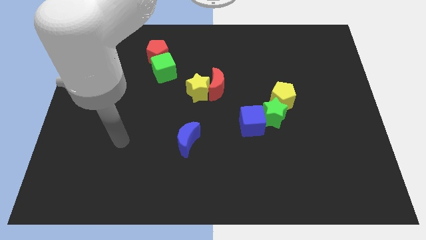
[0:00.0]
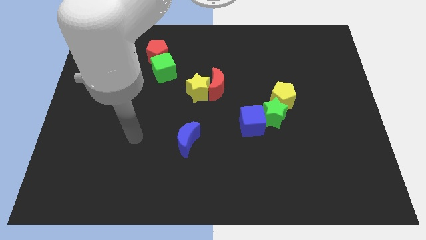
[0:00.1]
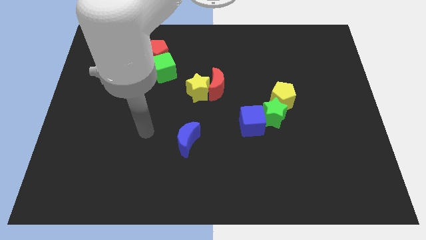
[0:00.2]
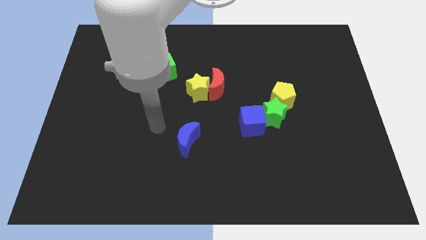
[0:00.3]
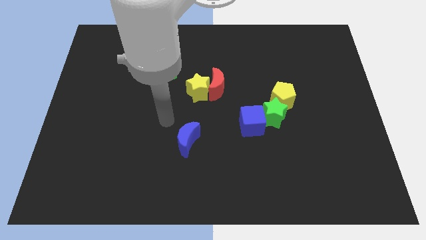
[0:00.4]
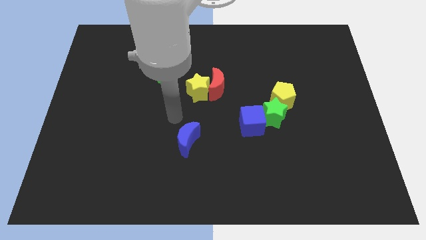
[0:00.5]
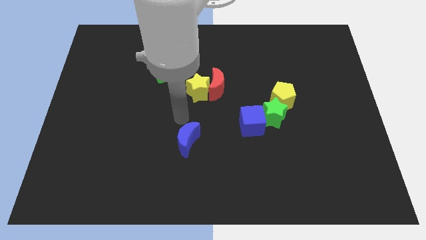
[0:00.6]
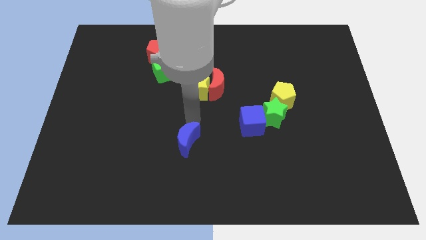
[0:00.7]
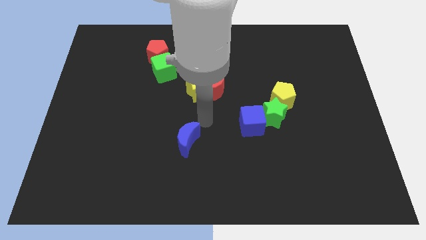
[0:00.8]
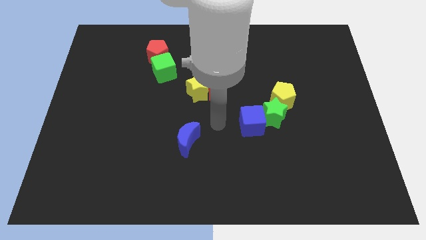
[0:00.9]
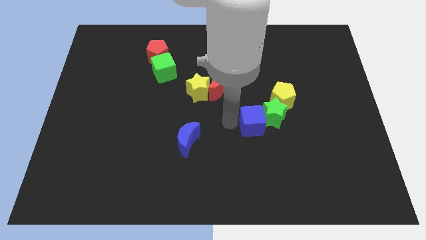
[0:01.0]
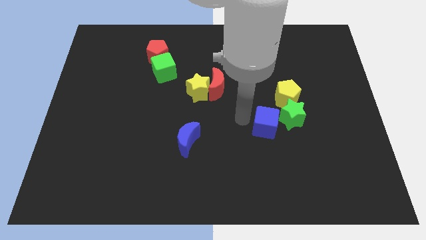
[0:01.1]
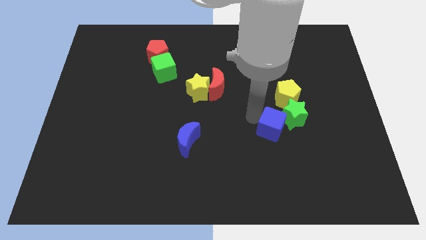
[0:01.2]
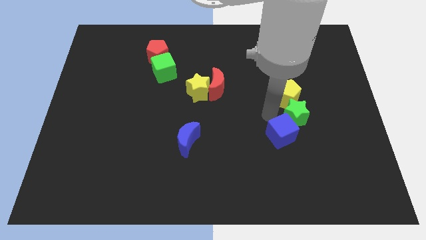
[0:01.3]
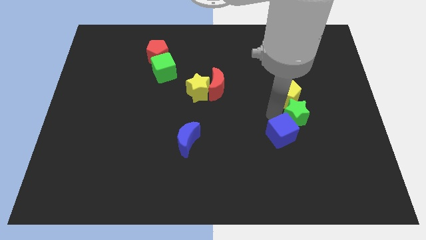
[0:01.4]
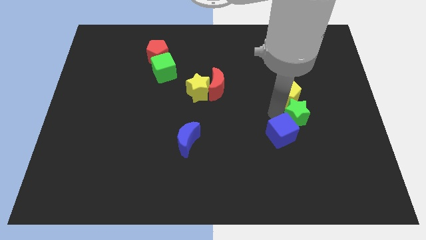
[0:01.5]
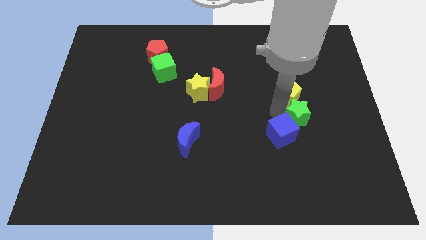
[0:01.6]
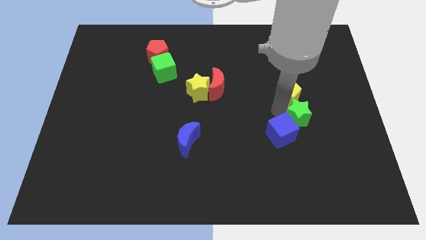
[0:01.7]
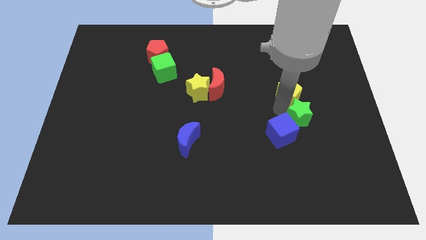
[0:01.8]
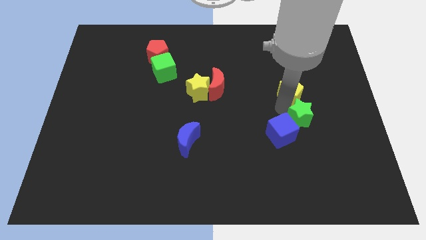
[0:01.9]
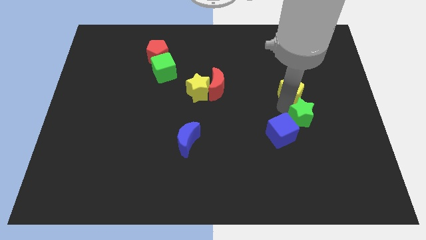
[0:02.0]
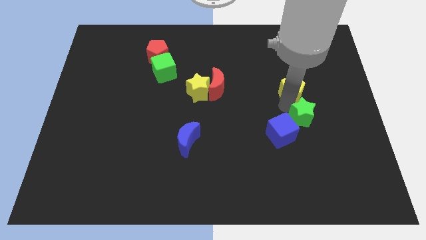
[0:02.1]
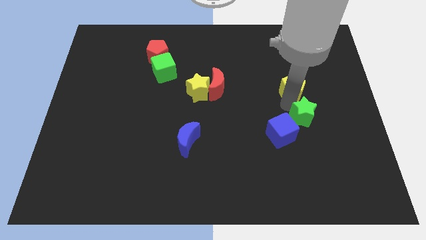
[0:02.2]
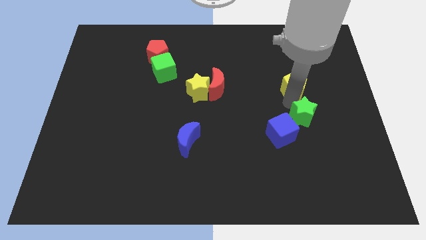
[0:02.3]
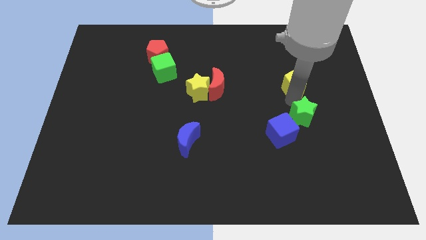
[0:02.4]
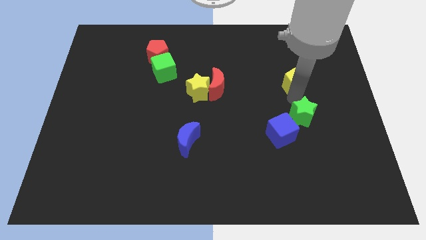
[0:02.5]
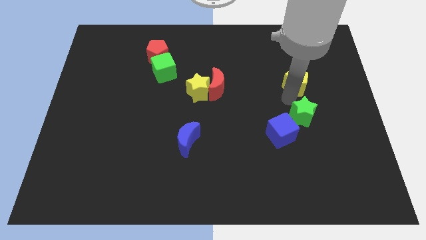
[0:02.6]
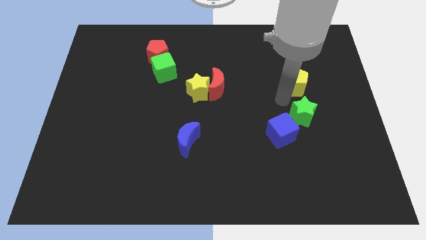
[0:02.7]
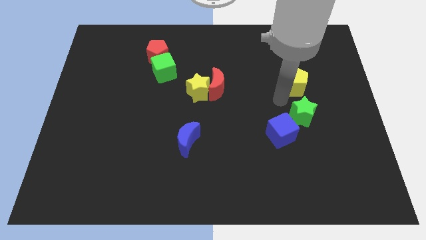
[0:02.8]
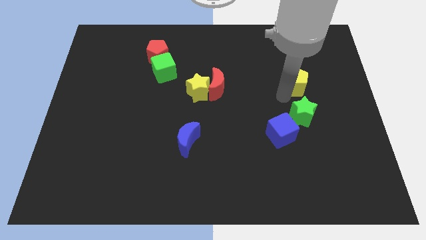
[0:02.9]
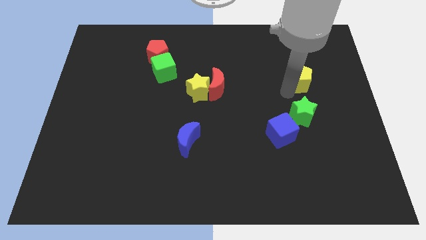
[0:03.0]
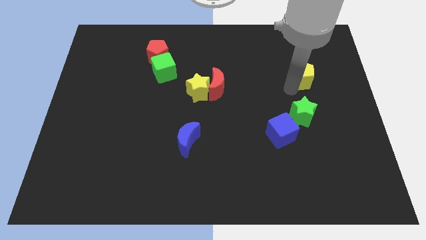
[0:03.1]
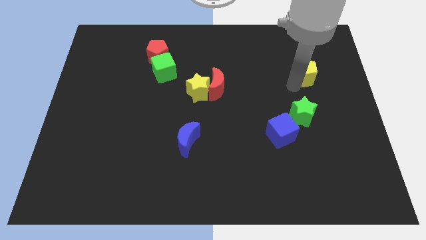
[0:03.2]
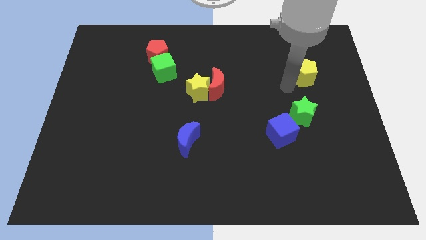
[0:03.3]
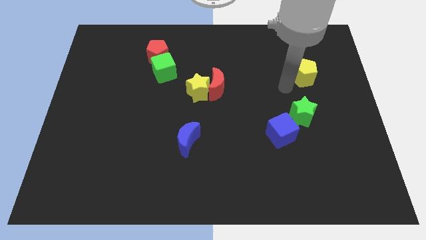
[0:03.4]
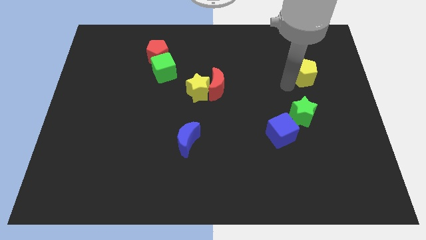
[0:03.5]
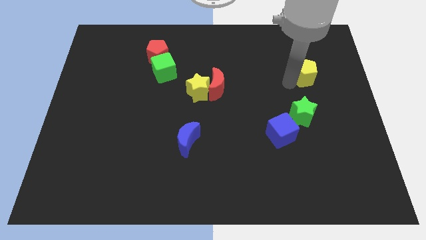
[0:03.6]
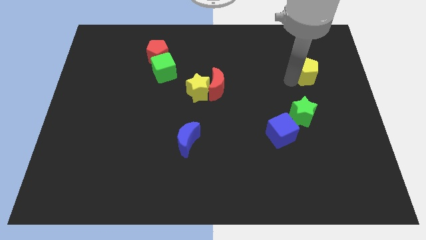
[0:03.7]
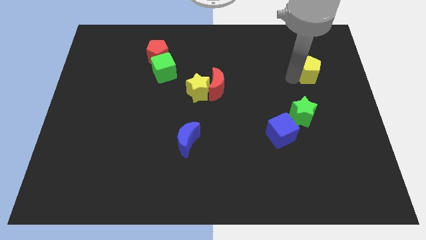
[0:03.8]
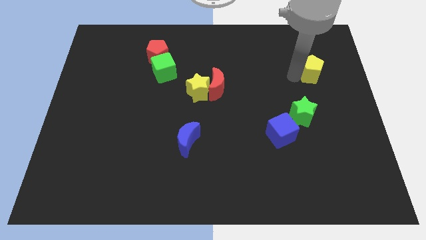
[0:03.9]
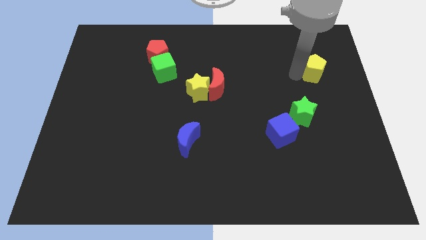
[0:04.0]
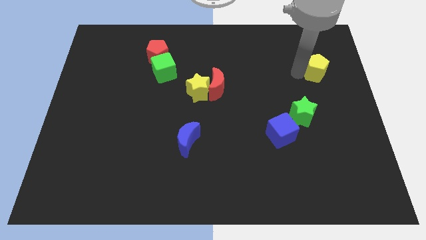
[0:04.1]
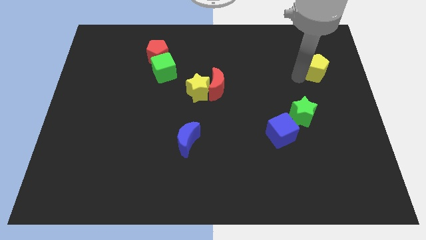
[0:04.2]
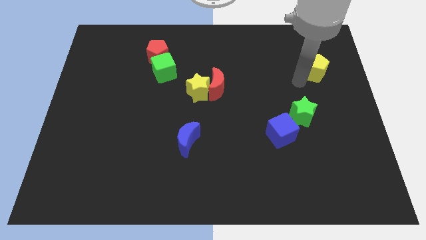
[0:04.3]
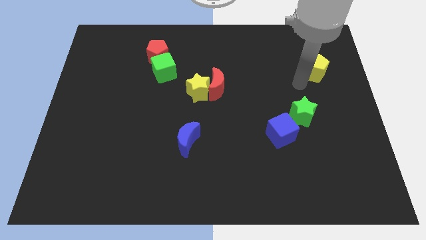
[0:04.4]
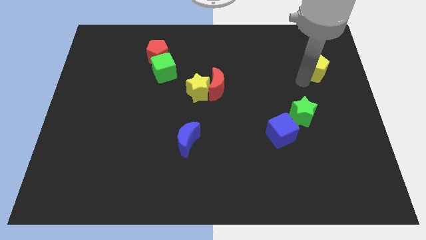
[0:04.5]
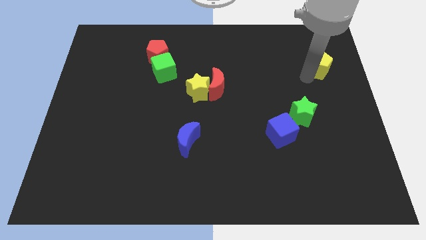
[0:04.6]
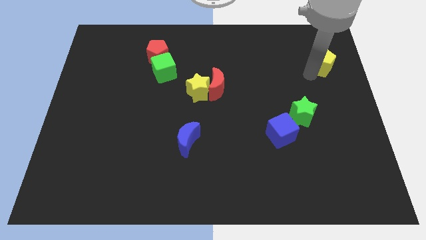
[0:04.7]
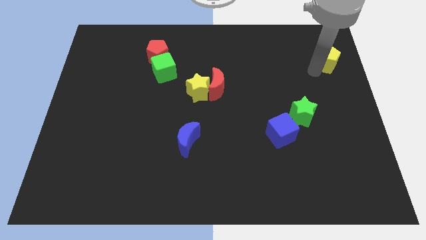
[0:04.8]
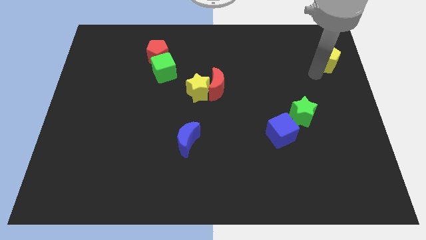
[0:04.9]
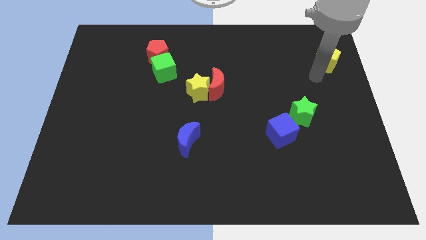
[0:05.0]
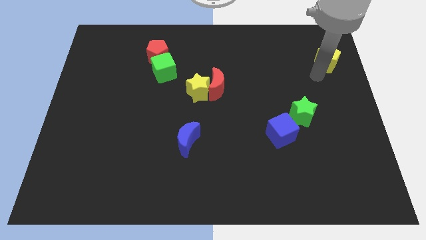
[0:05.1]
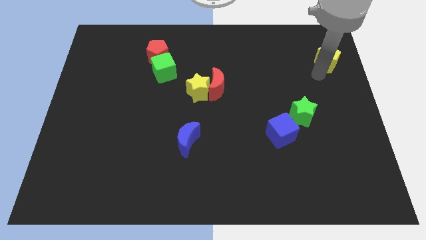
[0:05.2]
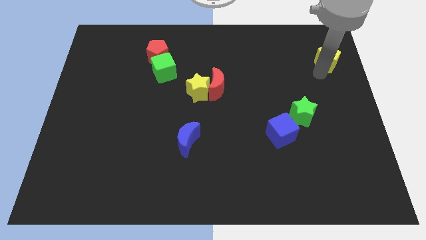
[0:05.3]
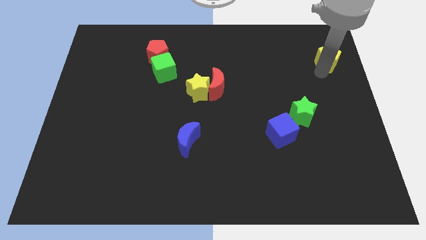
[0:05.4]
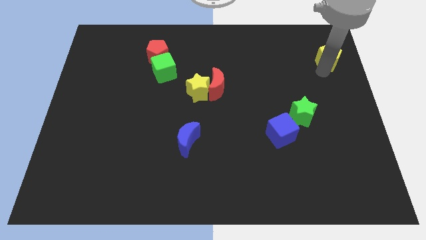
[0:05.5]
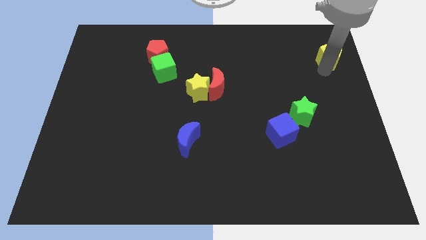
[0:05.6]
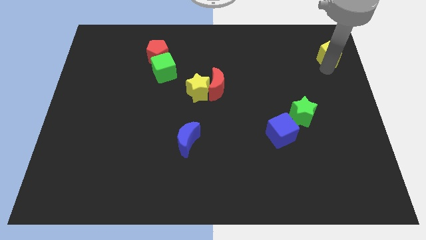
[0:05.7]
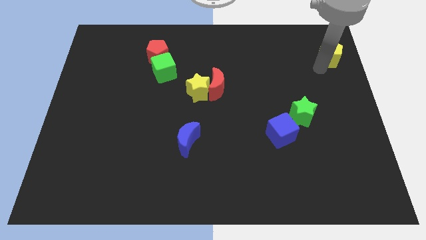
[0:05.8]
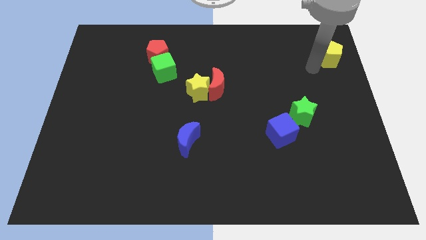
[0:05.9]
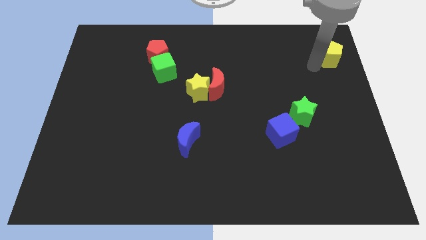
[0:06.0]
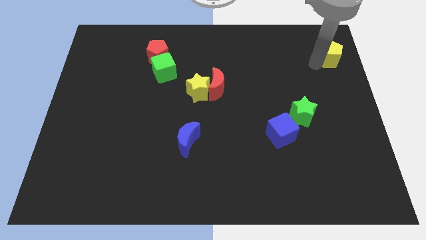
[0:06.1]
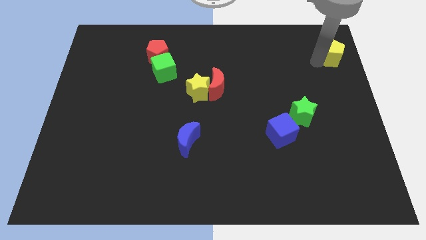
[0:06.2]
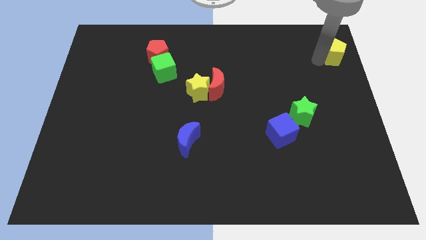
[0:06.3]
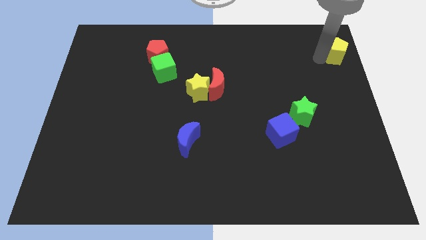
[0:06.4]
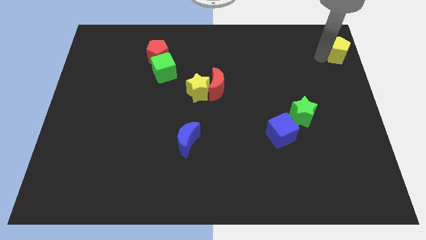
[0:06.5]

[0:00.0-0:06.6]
move the yellow pentagon to the top right of the board
